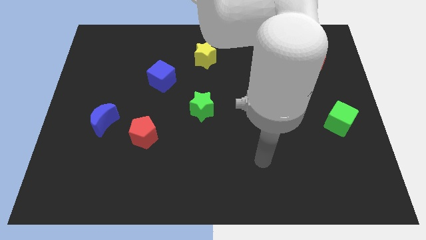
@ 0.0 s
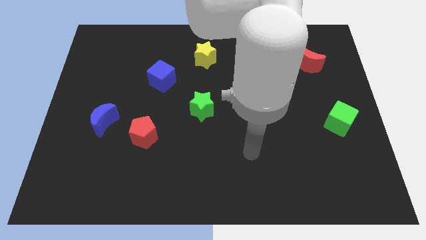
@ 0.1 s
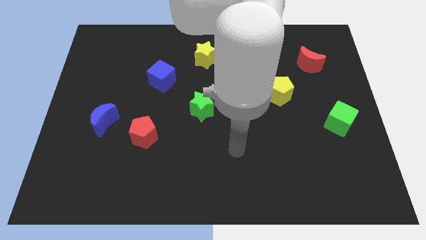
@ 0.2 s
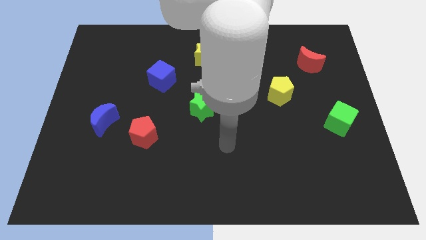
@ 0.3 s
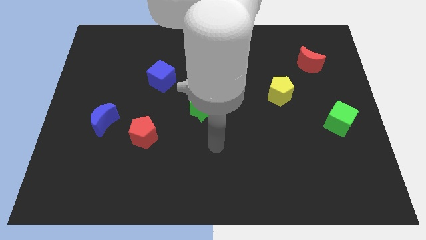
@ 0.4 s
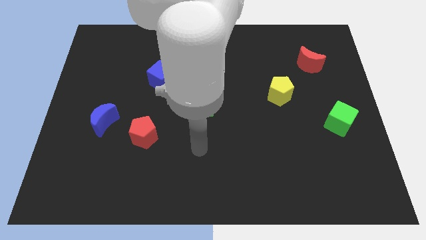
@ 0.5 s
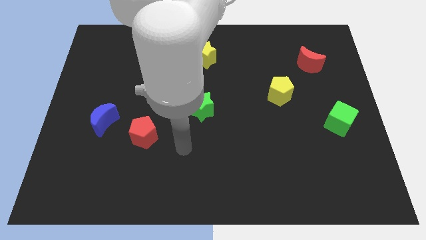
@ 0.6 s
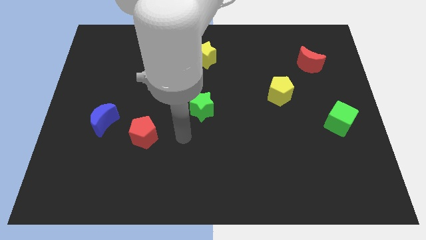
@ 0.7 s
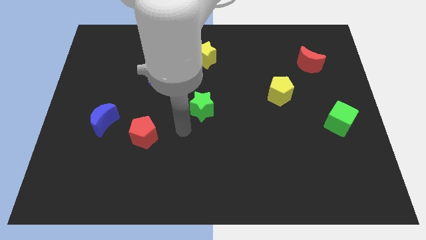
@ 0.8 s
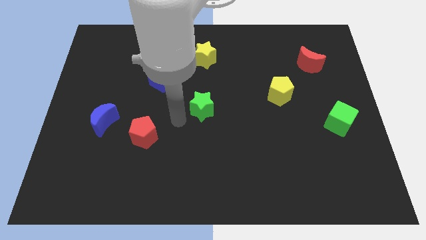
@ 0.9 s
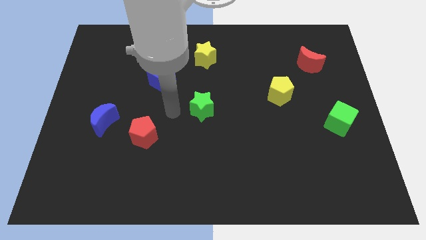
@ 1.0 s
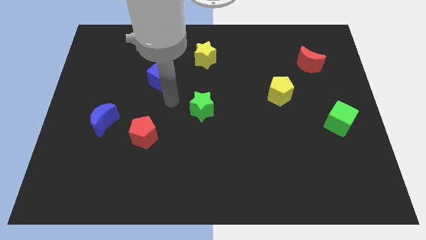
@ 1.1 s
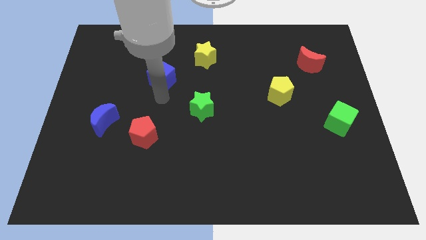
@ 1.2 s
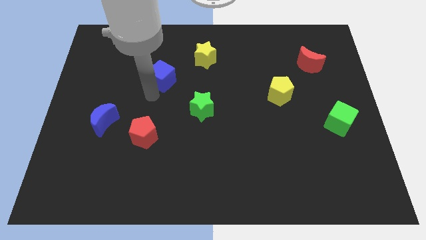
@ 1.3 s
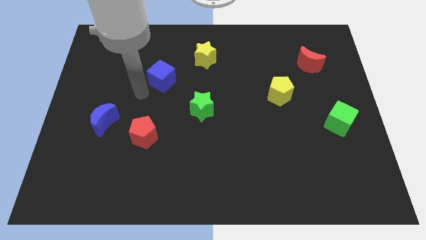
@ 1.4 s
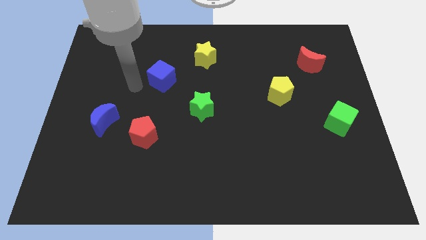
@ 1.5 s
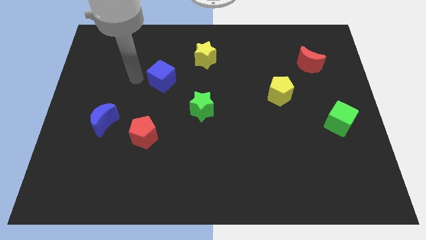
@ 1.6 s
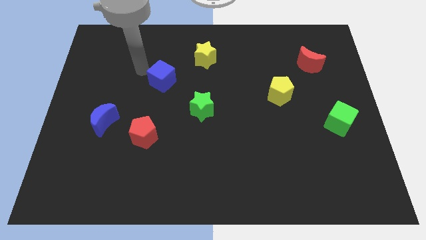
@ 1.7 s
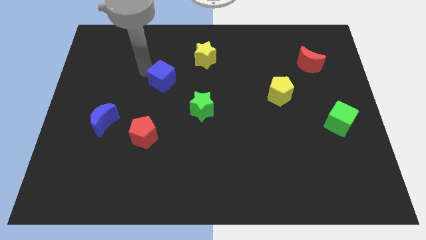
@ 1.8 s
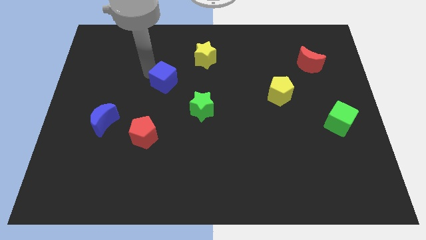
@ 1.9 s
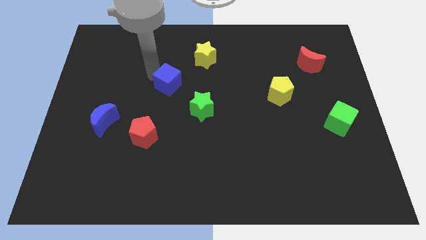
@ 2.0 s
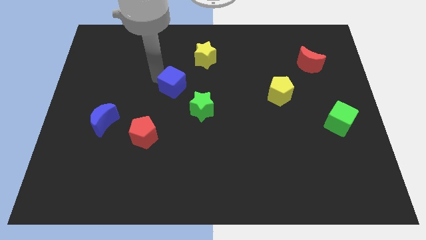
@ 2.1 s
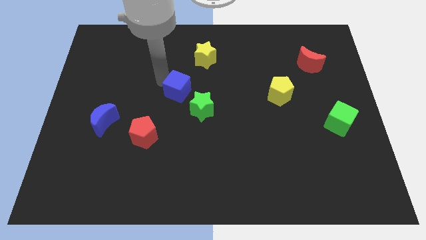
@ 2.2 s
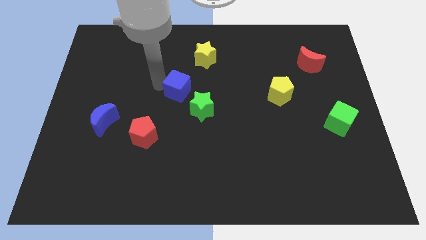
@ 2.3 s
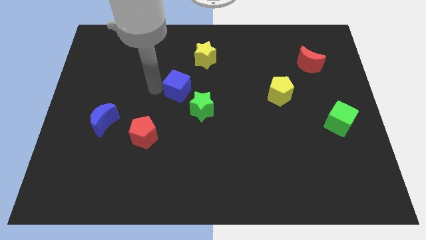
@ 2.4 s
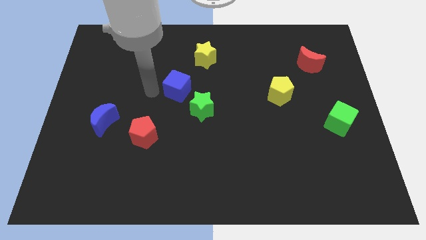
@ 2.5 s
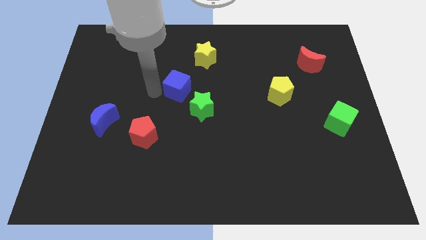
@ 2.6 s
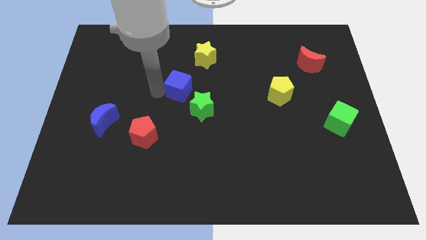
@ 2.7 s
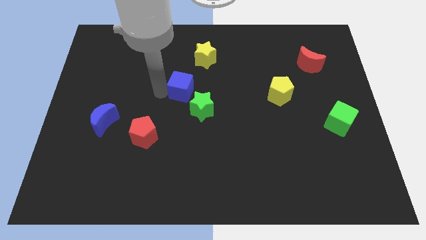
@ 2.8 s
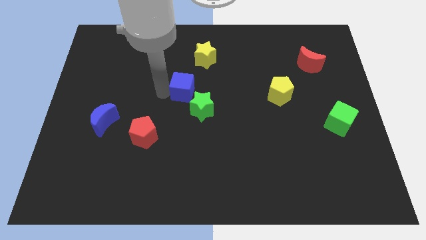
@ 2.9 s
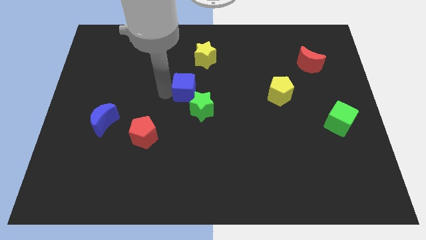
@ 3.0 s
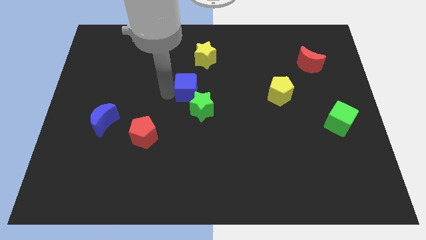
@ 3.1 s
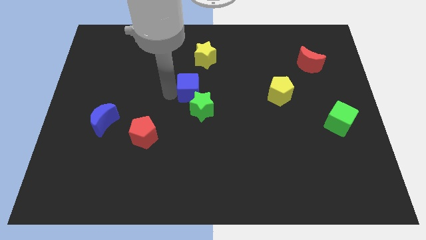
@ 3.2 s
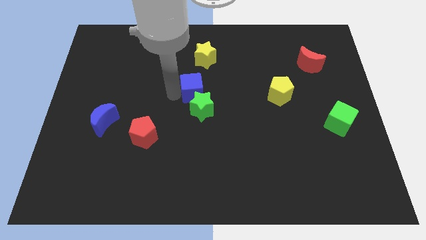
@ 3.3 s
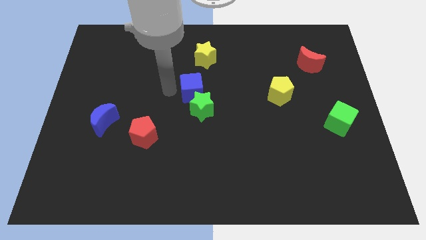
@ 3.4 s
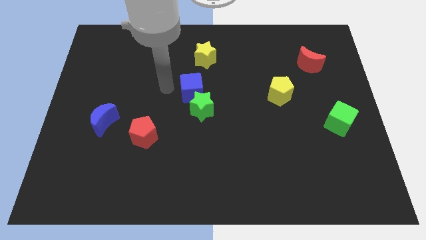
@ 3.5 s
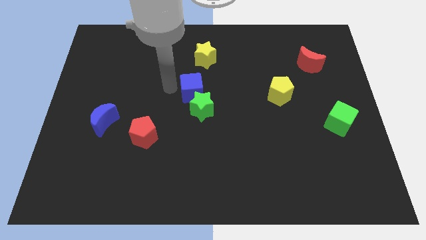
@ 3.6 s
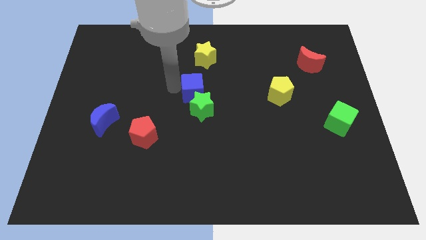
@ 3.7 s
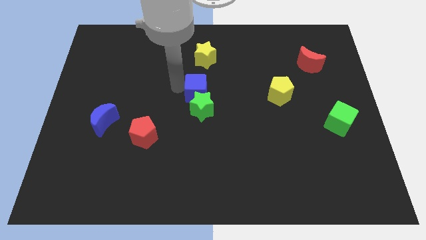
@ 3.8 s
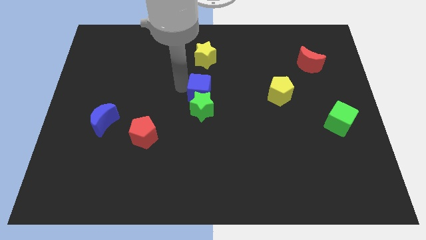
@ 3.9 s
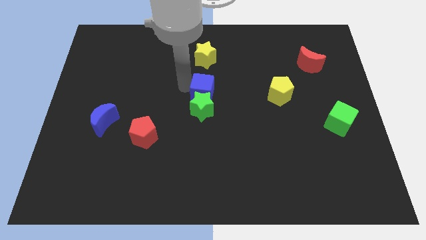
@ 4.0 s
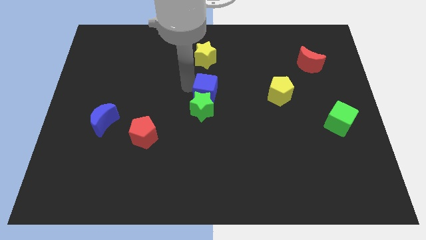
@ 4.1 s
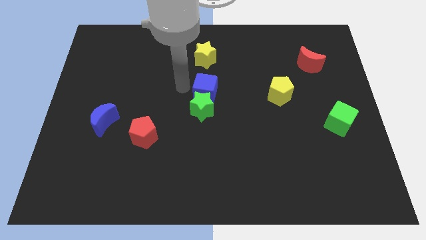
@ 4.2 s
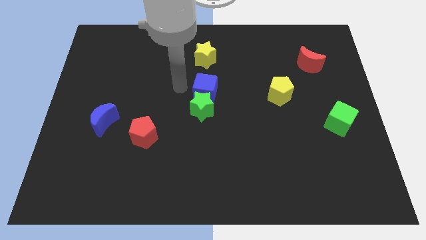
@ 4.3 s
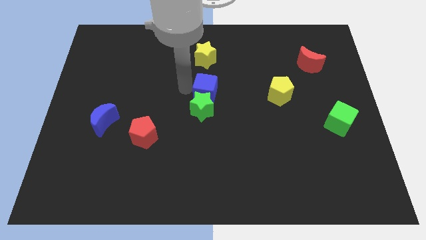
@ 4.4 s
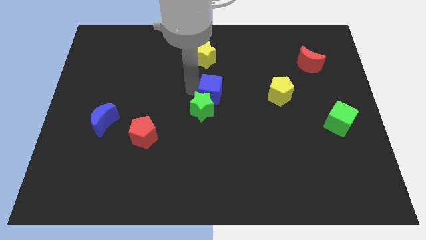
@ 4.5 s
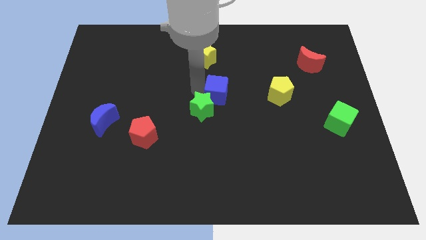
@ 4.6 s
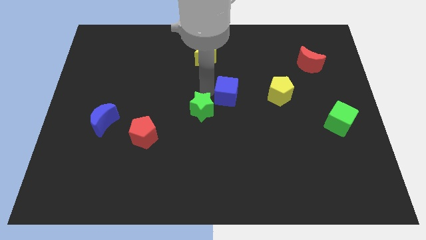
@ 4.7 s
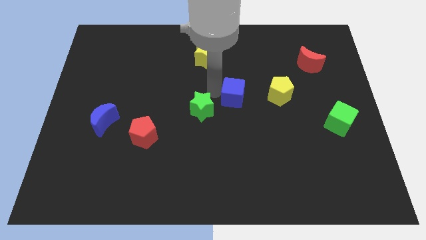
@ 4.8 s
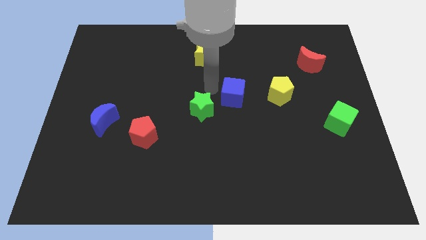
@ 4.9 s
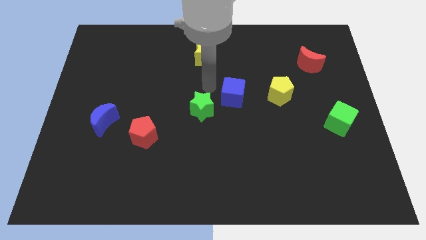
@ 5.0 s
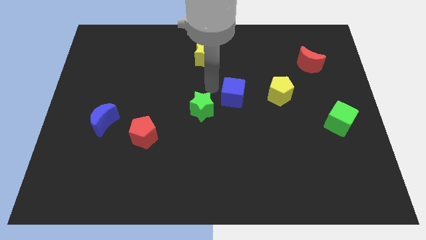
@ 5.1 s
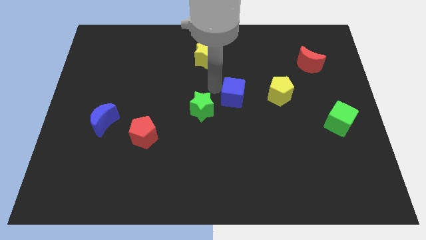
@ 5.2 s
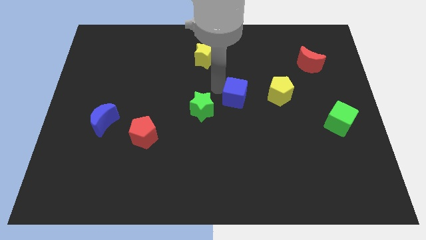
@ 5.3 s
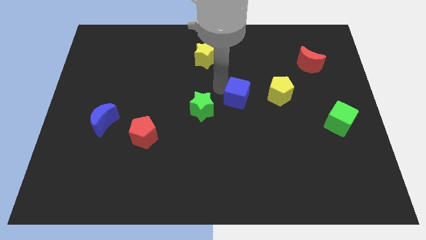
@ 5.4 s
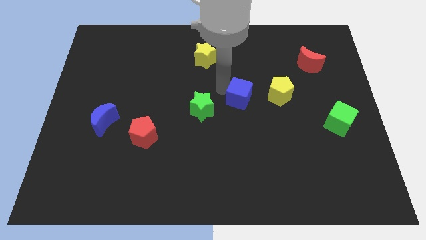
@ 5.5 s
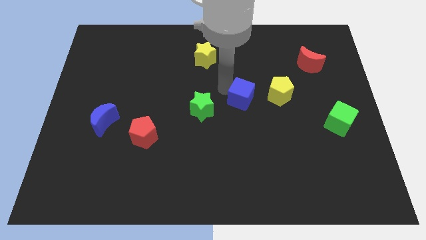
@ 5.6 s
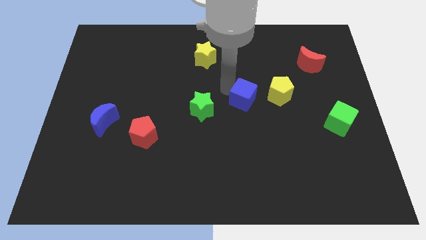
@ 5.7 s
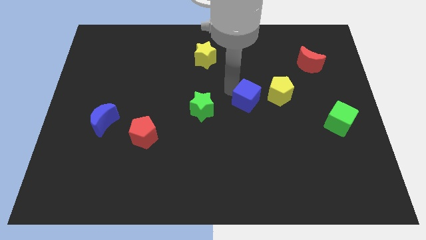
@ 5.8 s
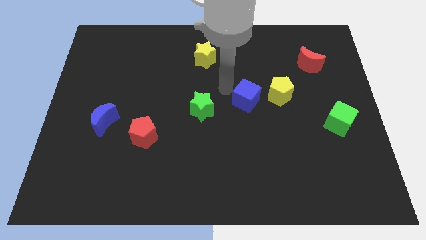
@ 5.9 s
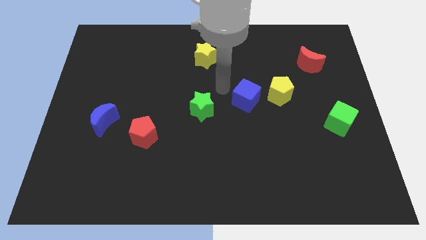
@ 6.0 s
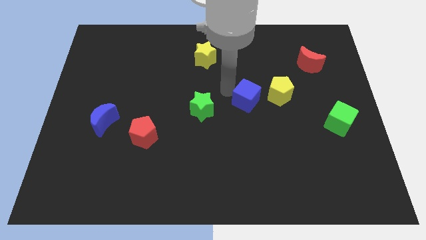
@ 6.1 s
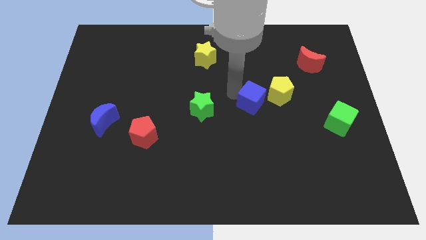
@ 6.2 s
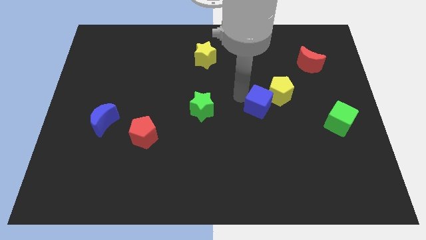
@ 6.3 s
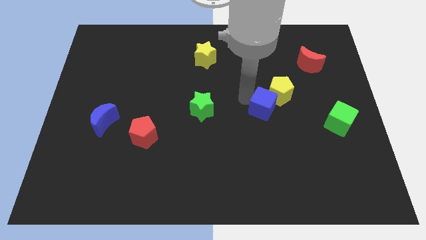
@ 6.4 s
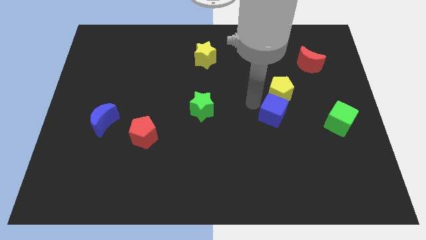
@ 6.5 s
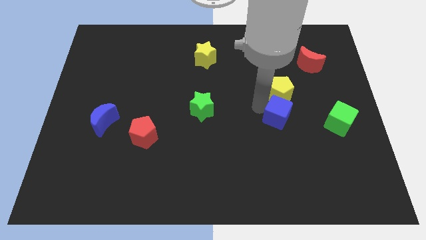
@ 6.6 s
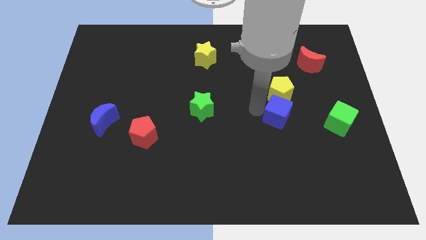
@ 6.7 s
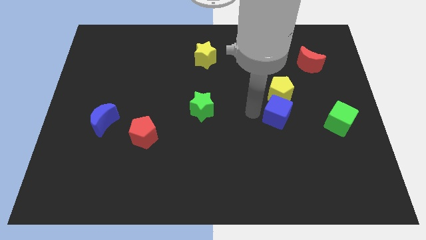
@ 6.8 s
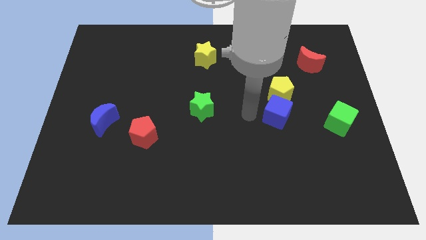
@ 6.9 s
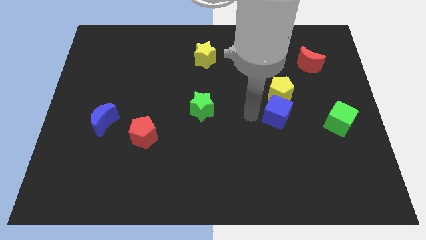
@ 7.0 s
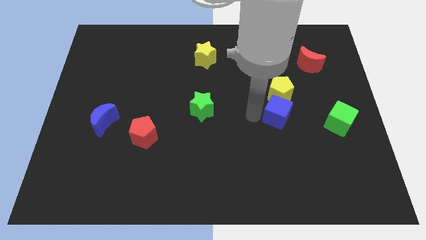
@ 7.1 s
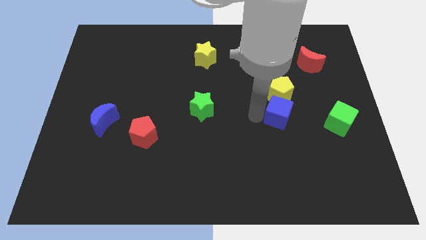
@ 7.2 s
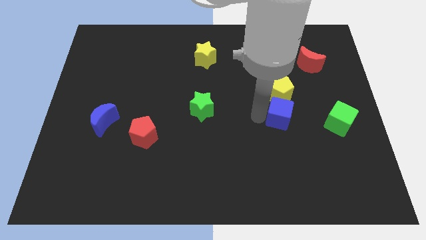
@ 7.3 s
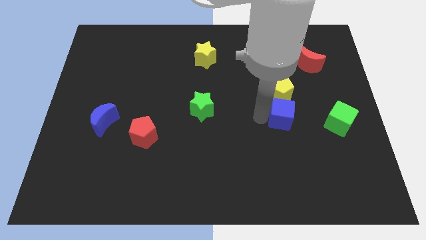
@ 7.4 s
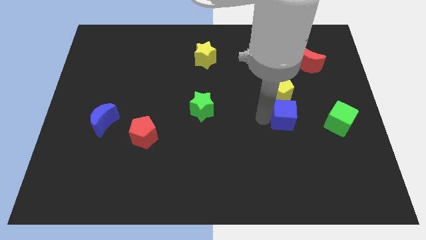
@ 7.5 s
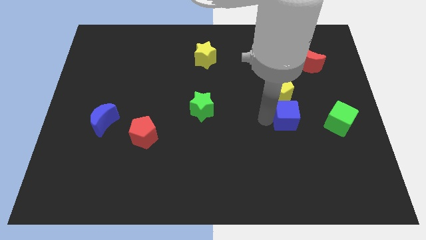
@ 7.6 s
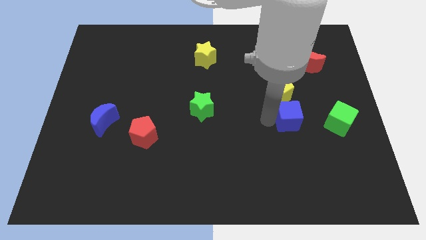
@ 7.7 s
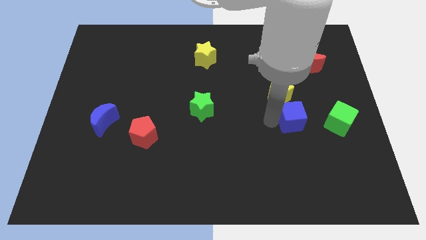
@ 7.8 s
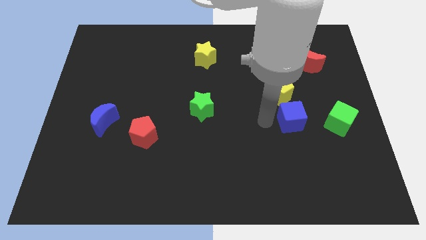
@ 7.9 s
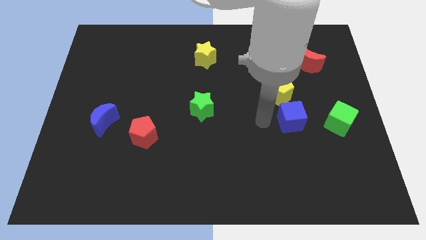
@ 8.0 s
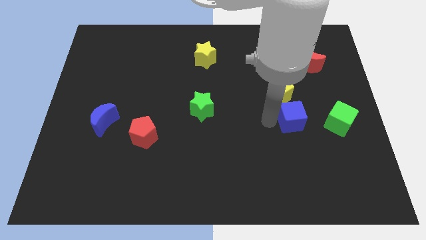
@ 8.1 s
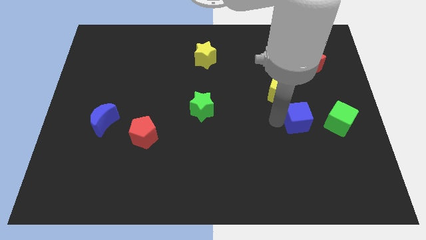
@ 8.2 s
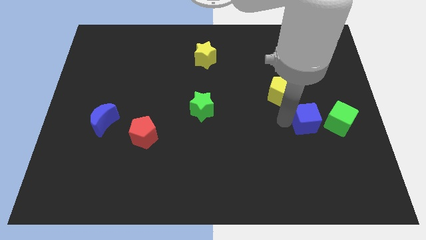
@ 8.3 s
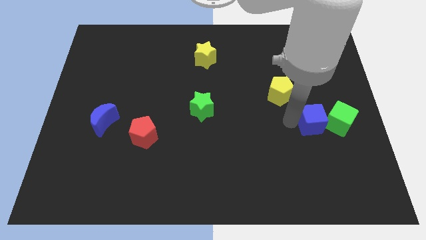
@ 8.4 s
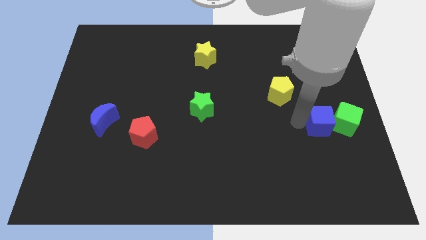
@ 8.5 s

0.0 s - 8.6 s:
move the blue cube towards the green cube
